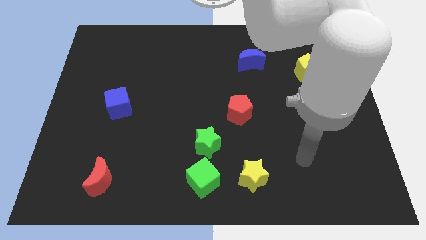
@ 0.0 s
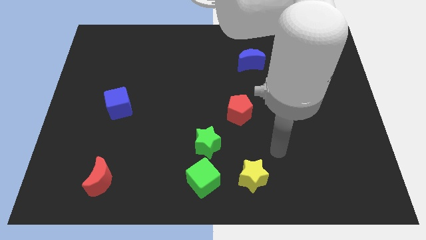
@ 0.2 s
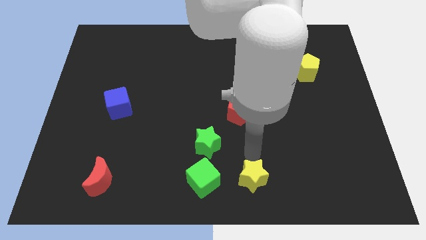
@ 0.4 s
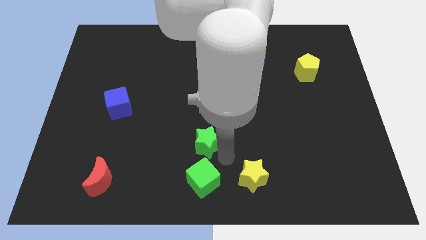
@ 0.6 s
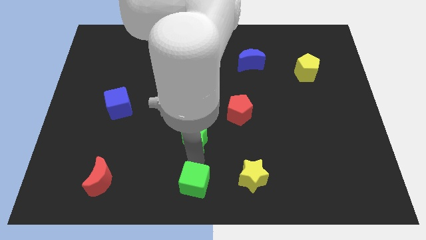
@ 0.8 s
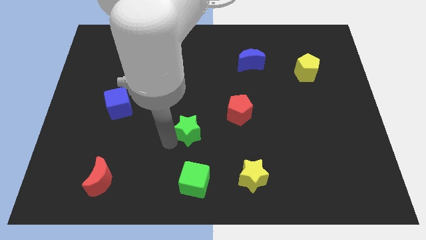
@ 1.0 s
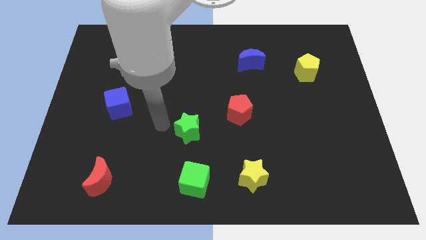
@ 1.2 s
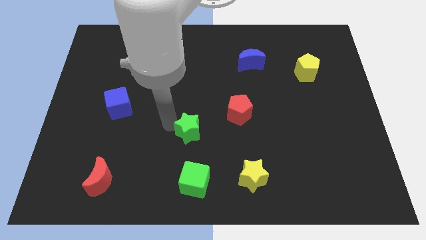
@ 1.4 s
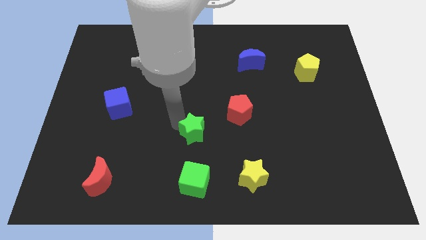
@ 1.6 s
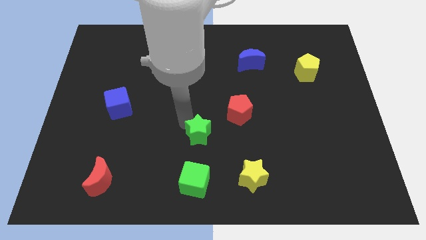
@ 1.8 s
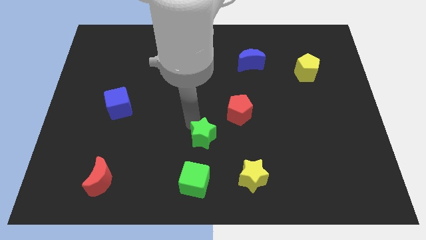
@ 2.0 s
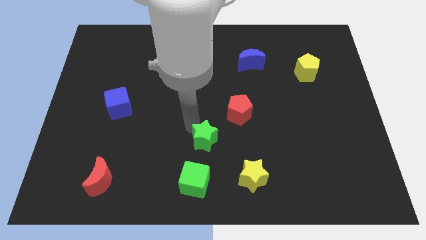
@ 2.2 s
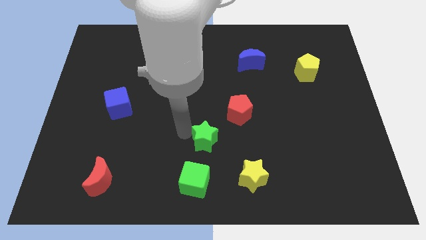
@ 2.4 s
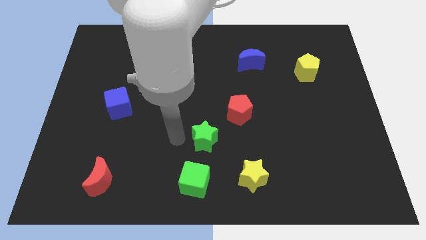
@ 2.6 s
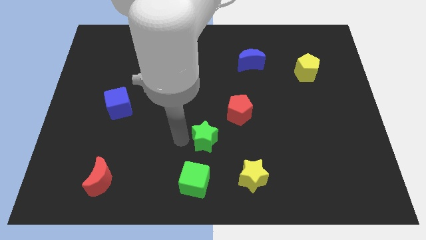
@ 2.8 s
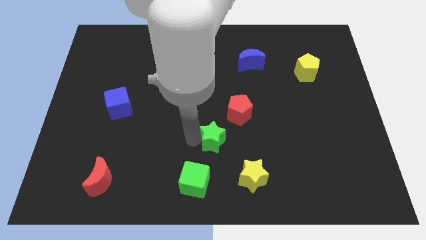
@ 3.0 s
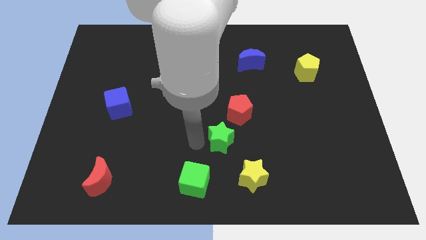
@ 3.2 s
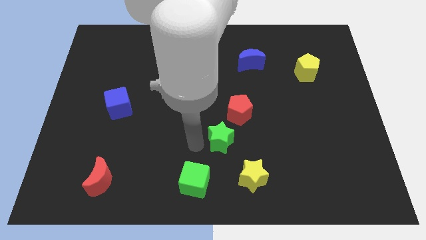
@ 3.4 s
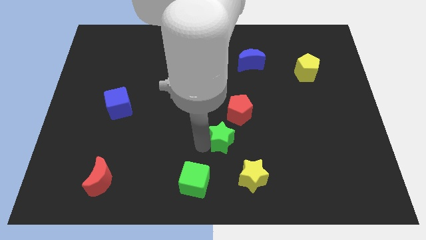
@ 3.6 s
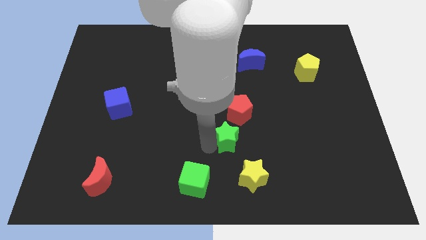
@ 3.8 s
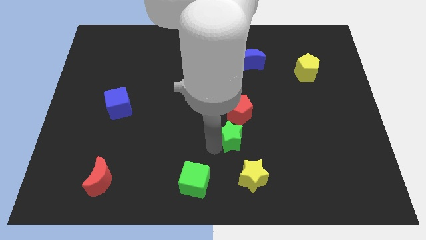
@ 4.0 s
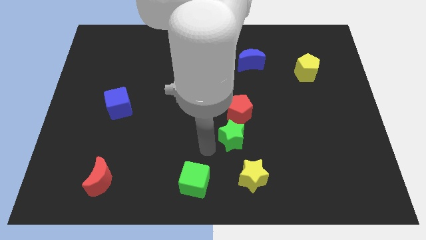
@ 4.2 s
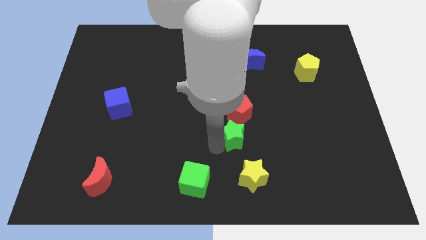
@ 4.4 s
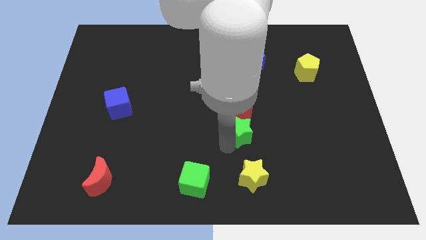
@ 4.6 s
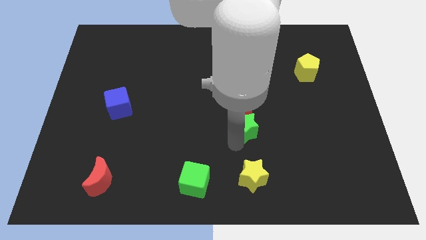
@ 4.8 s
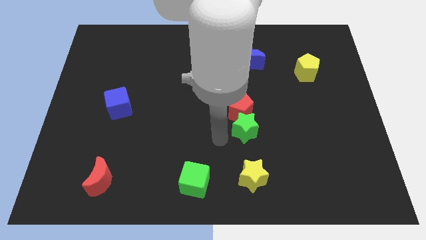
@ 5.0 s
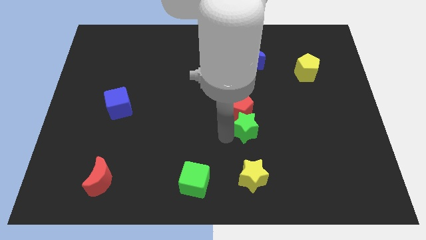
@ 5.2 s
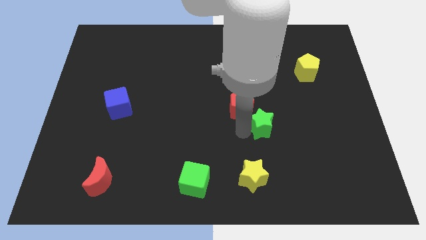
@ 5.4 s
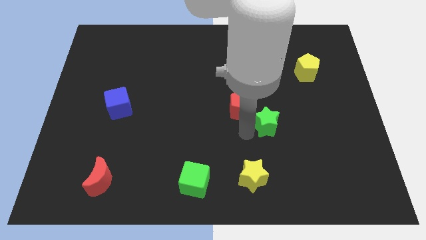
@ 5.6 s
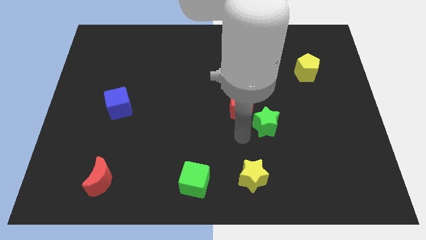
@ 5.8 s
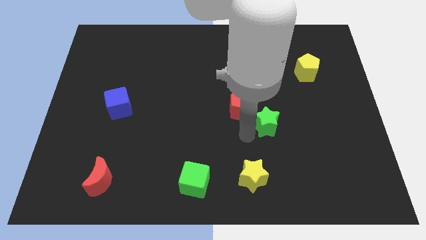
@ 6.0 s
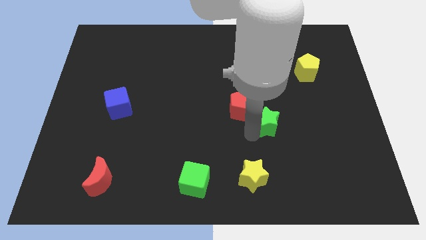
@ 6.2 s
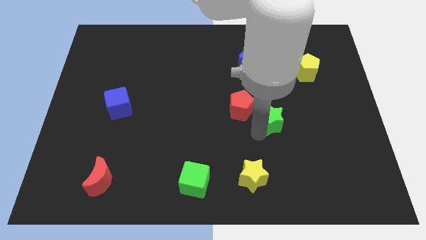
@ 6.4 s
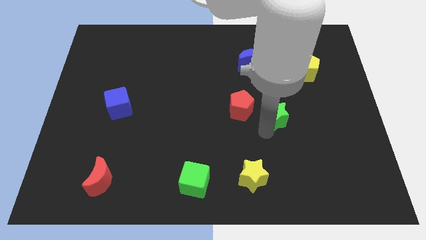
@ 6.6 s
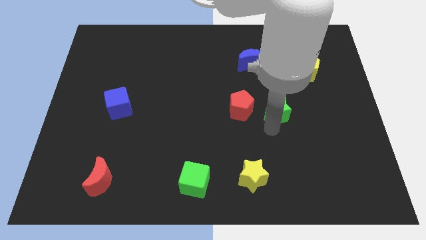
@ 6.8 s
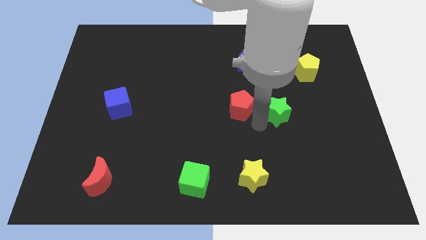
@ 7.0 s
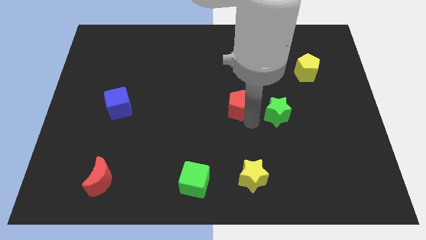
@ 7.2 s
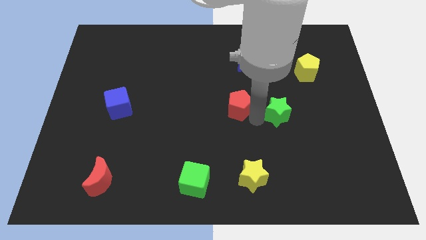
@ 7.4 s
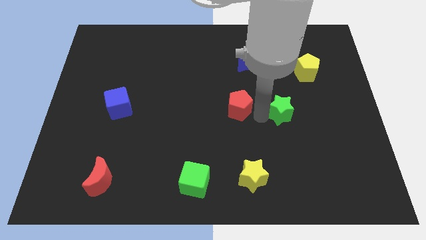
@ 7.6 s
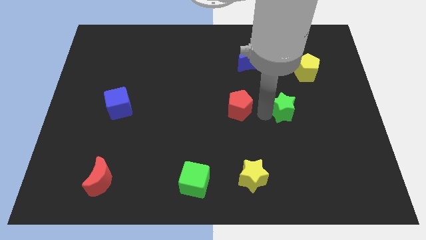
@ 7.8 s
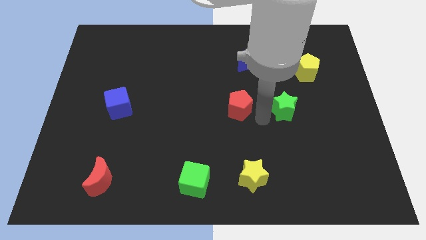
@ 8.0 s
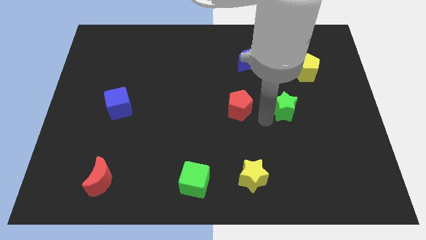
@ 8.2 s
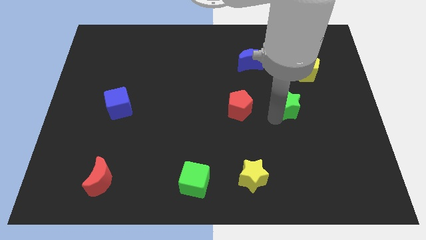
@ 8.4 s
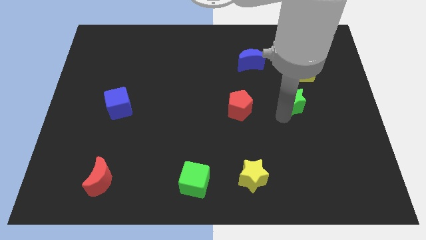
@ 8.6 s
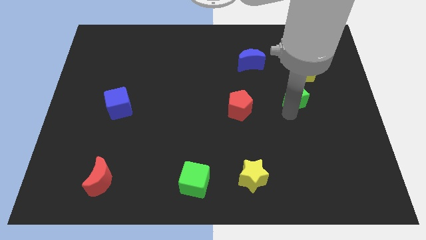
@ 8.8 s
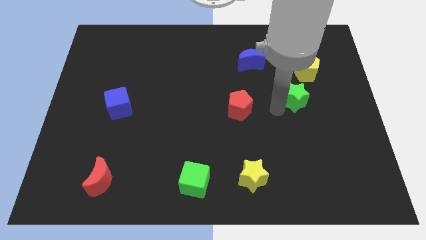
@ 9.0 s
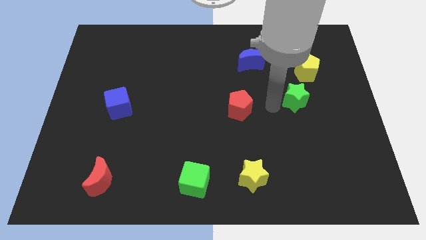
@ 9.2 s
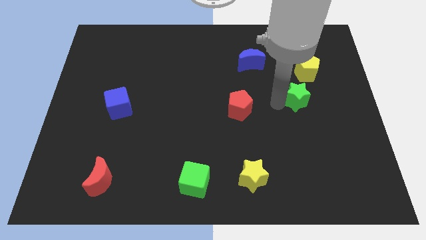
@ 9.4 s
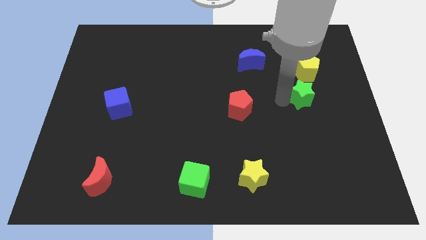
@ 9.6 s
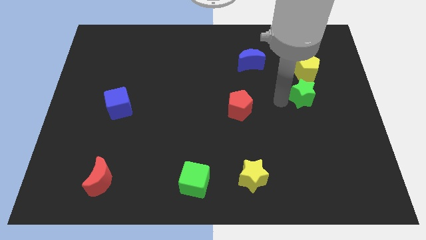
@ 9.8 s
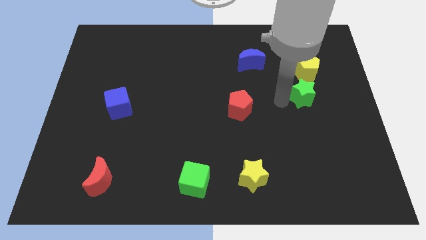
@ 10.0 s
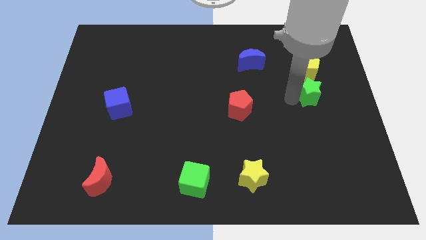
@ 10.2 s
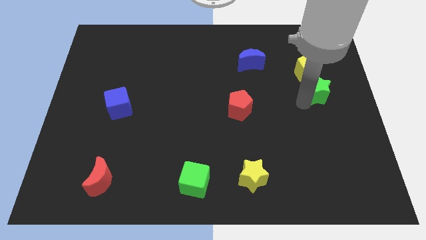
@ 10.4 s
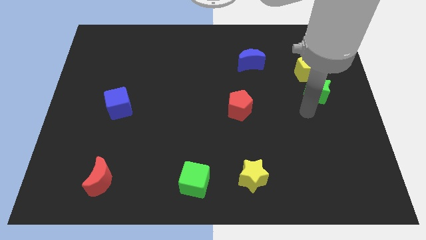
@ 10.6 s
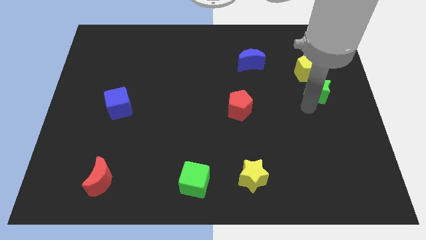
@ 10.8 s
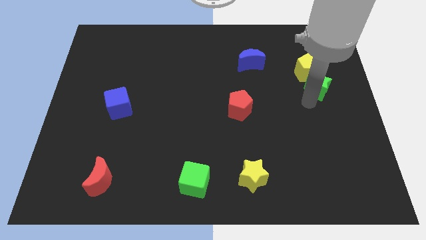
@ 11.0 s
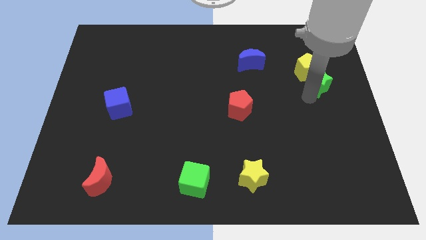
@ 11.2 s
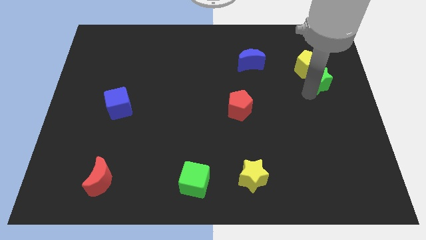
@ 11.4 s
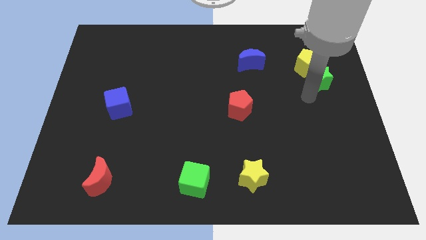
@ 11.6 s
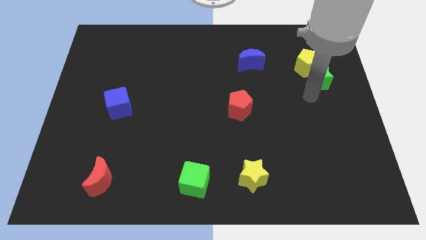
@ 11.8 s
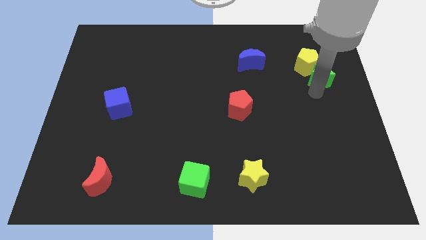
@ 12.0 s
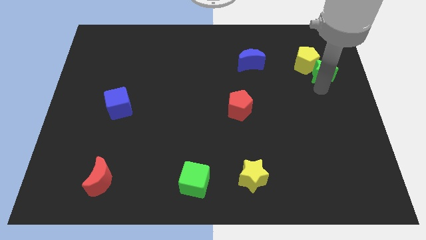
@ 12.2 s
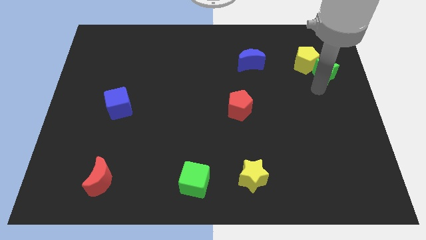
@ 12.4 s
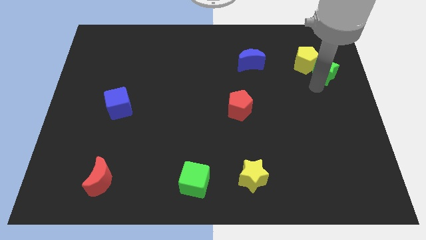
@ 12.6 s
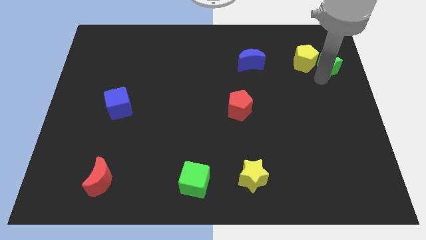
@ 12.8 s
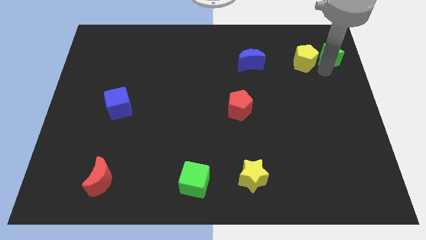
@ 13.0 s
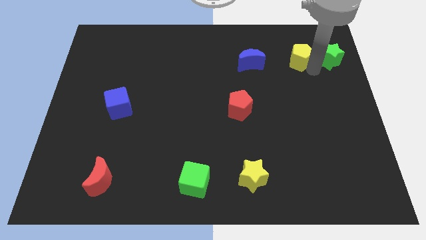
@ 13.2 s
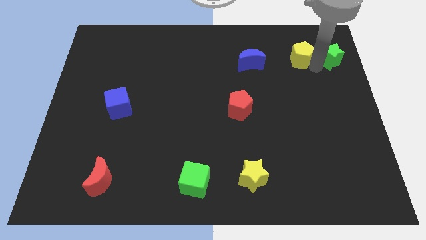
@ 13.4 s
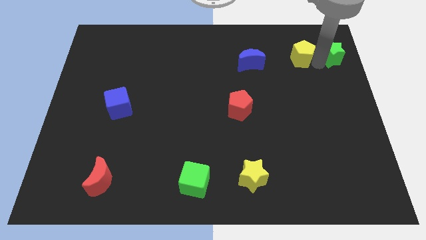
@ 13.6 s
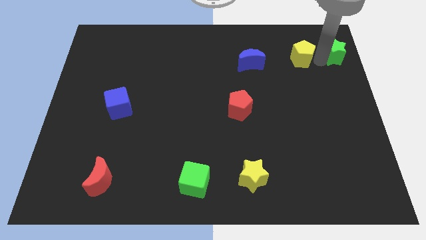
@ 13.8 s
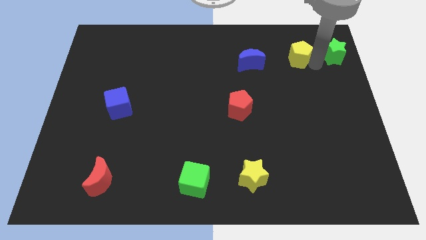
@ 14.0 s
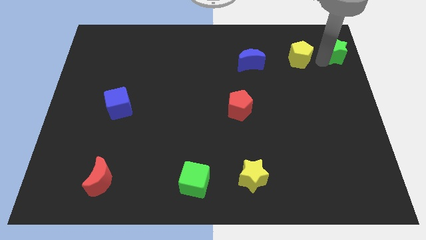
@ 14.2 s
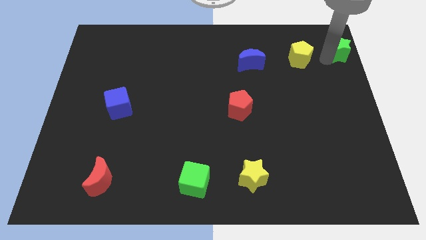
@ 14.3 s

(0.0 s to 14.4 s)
move the green star to the top right of the board
